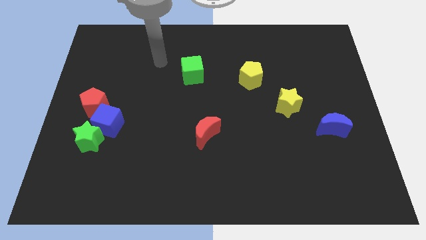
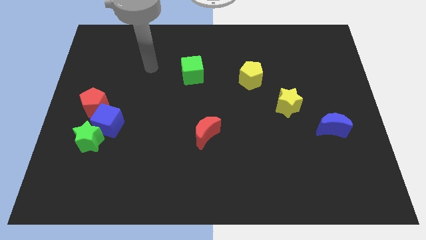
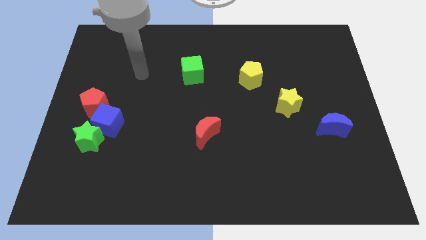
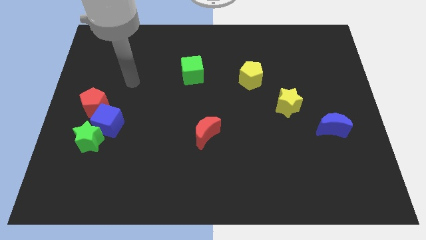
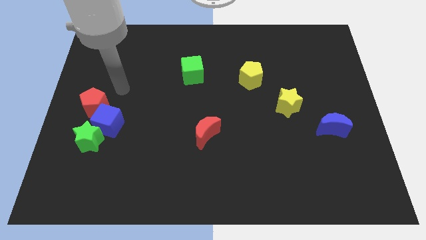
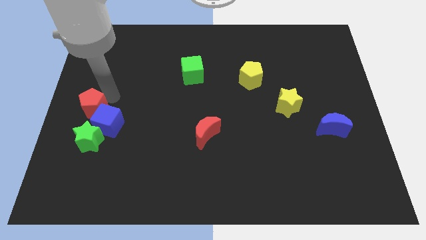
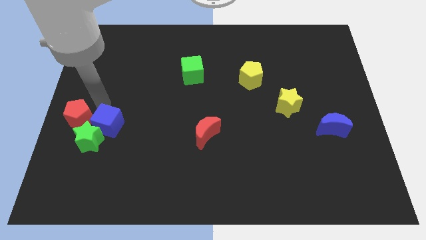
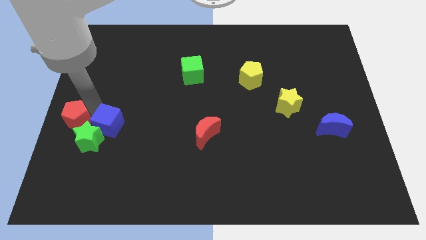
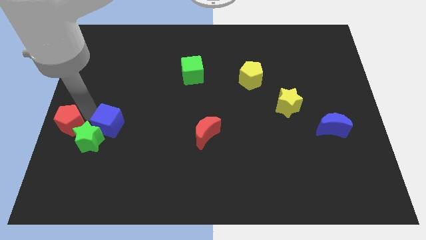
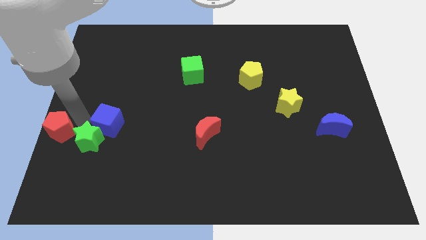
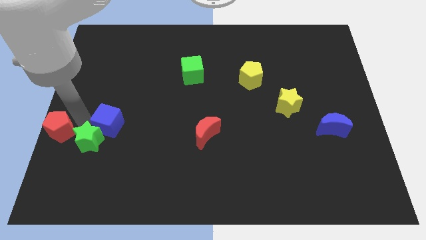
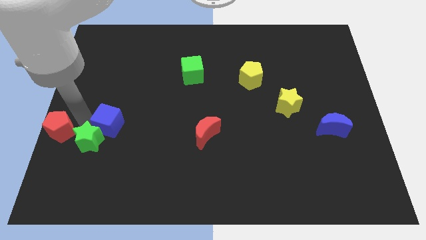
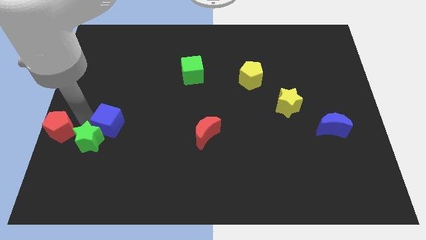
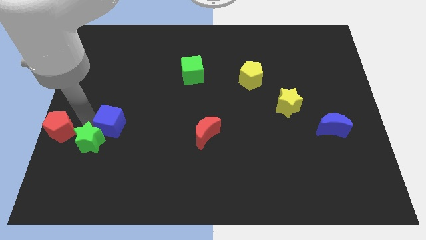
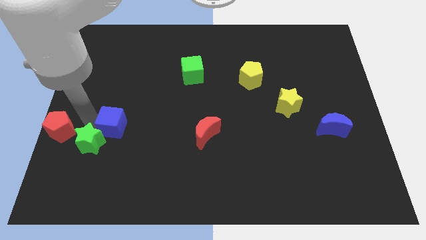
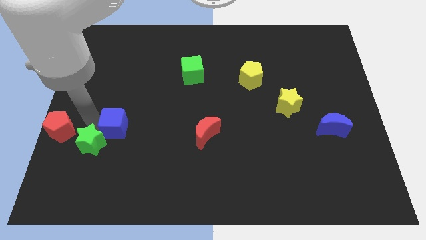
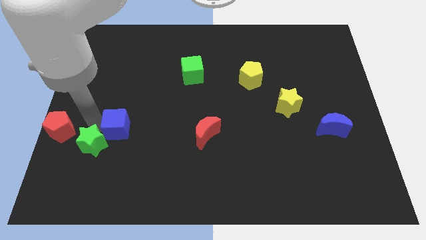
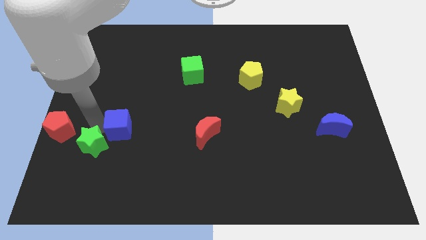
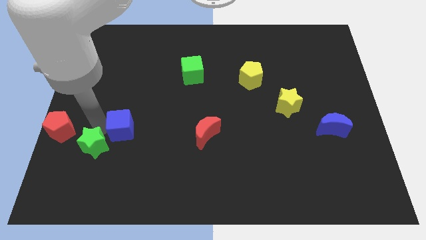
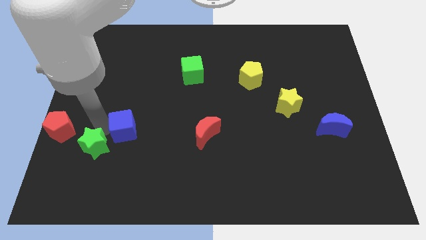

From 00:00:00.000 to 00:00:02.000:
pull the blue cube apart from the green star and red pentagon

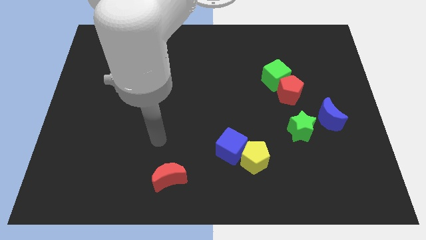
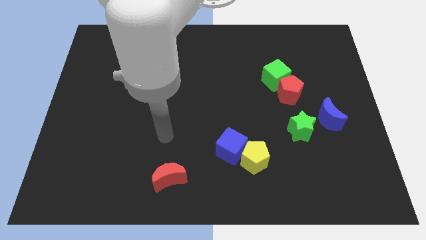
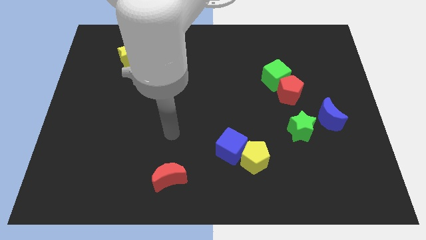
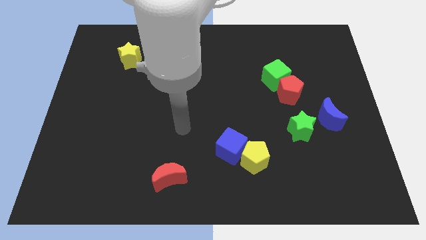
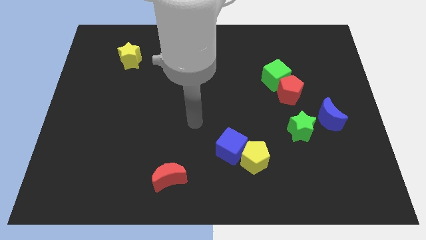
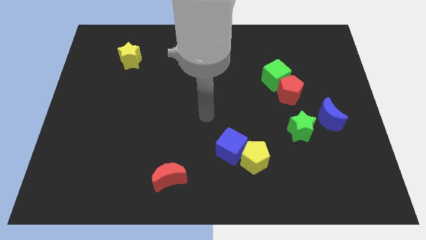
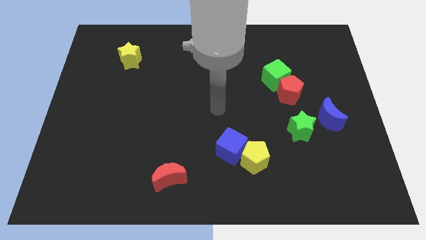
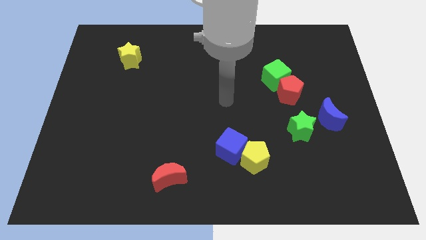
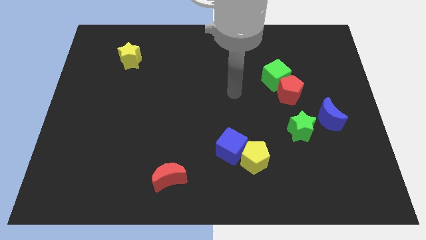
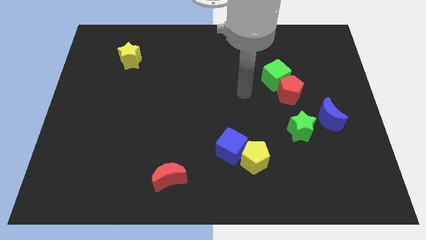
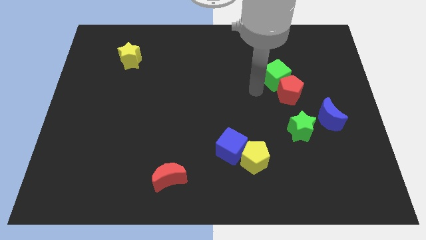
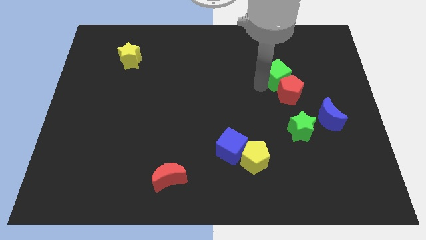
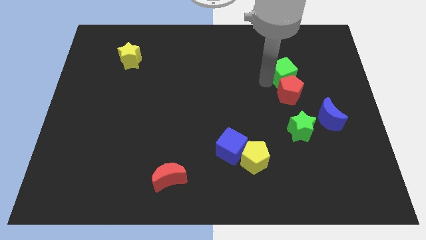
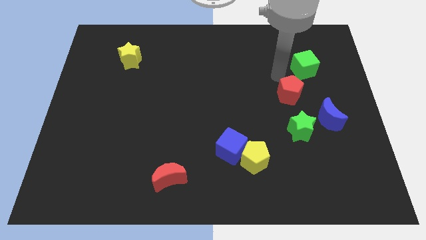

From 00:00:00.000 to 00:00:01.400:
move the red pentagon away from the green cube

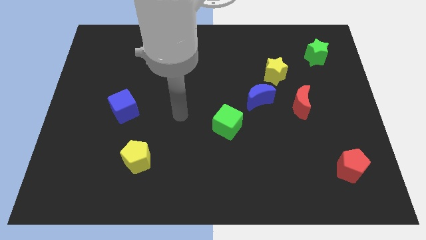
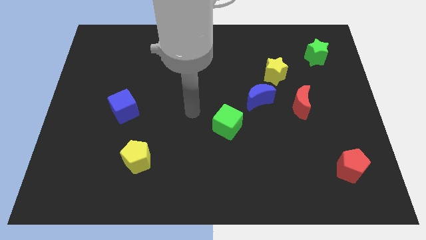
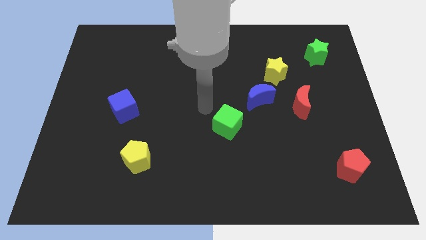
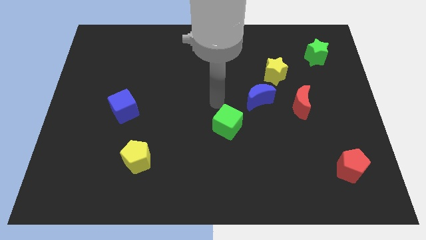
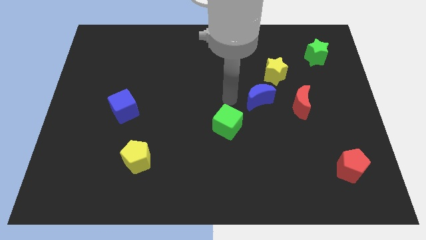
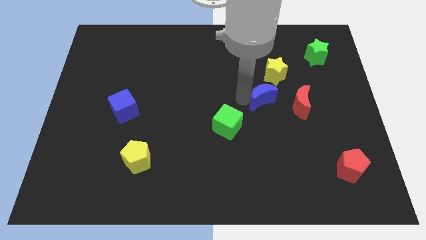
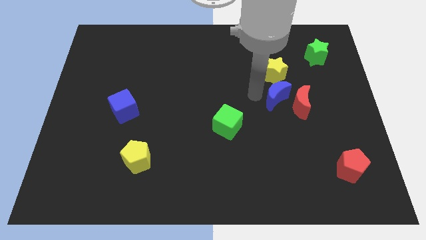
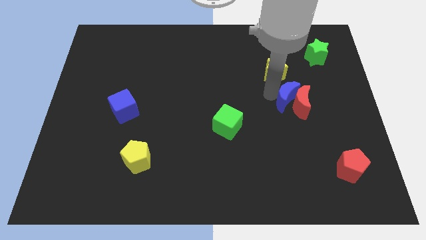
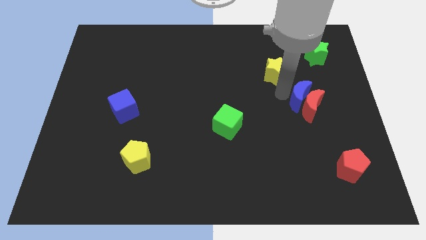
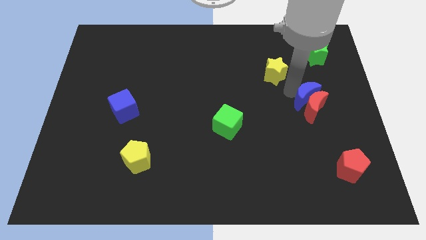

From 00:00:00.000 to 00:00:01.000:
separate the yellow star from the blue moon

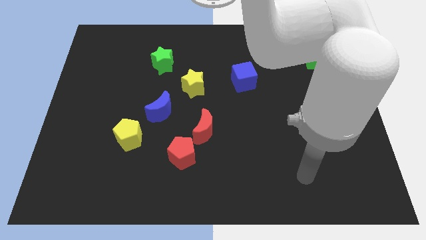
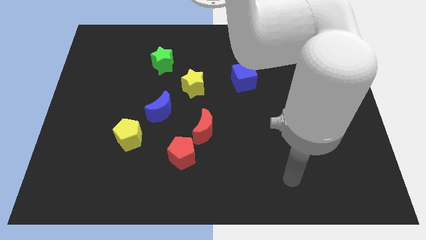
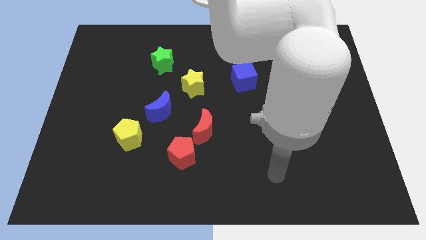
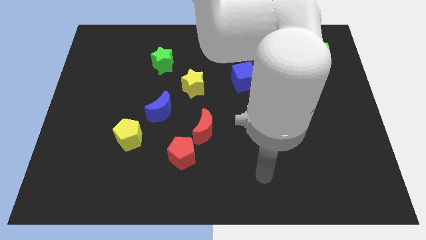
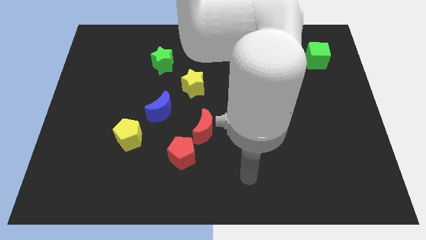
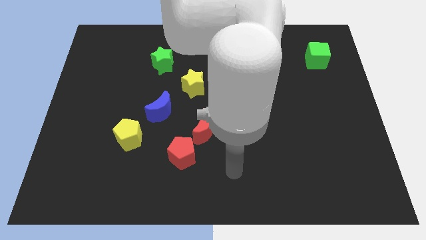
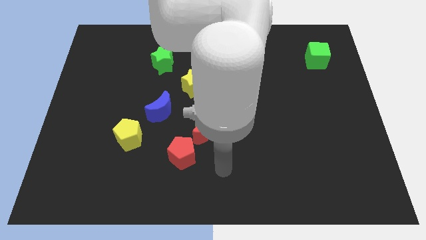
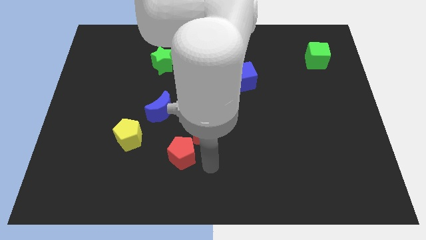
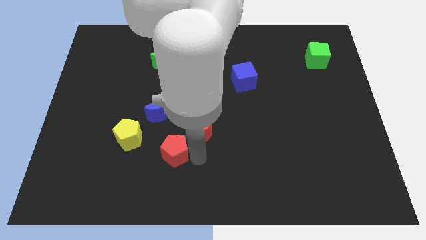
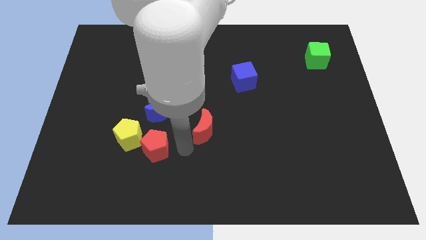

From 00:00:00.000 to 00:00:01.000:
move the red moon away from the red pentagon

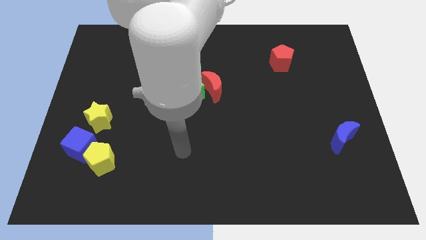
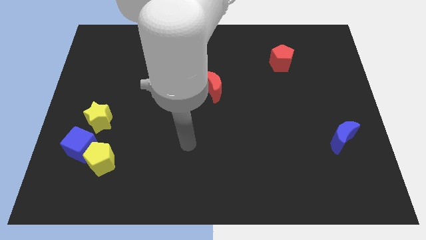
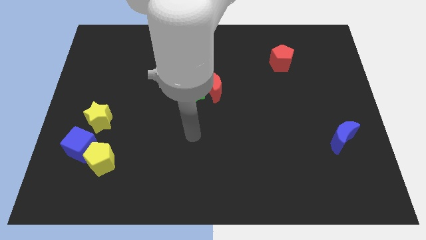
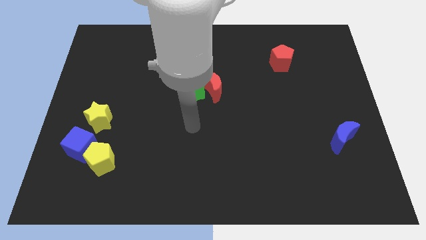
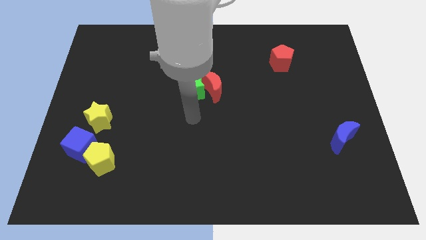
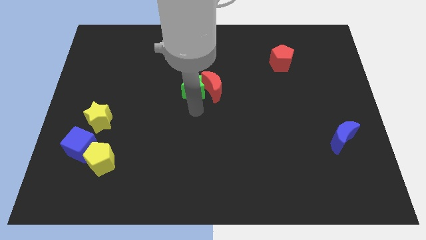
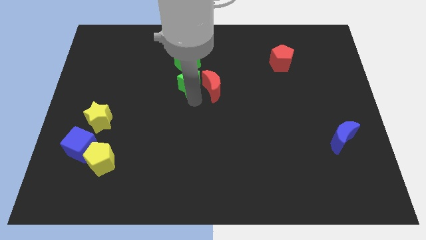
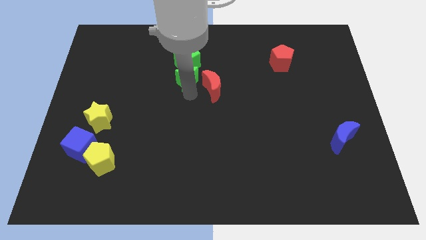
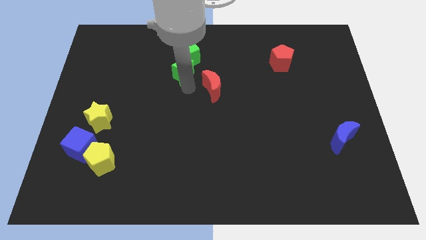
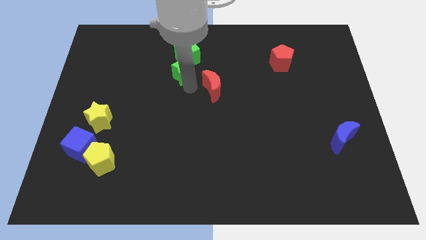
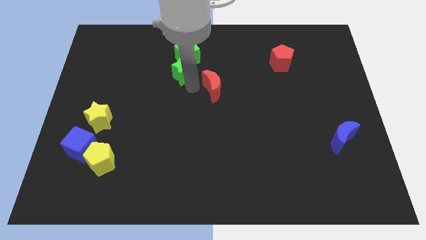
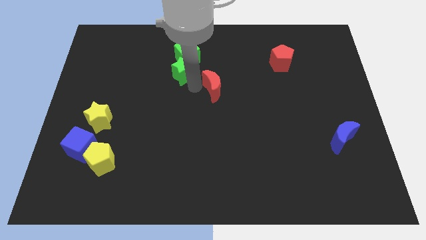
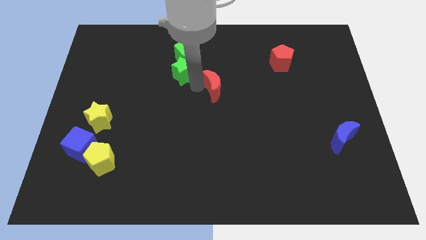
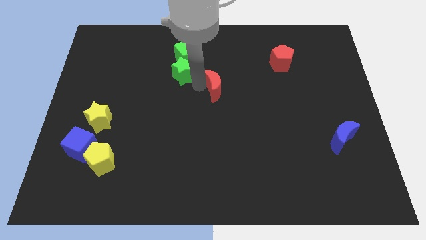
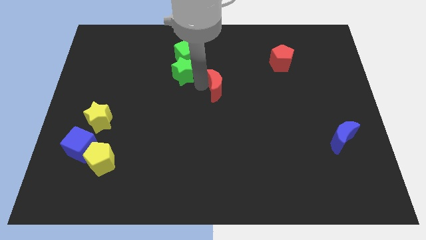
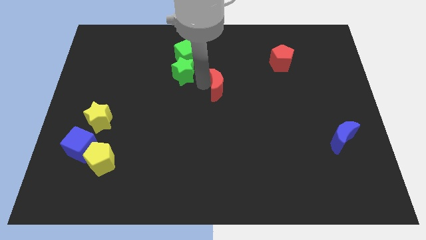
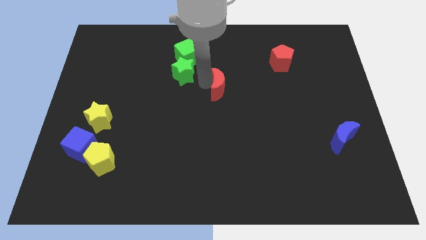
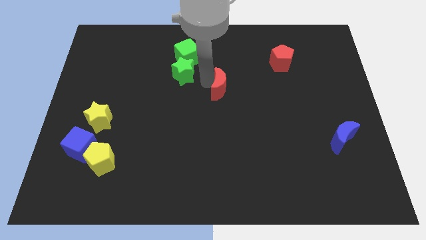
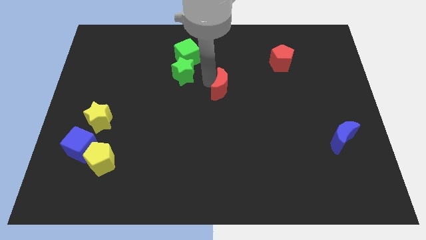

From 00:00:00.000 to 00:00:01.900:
move the red moon away from the green star

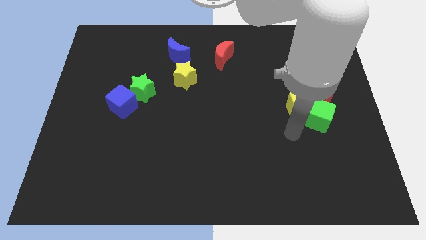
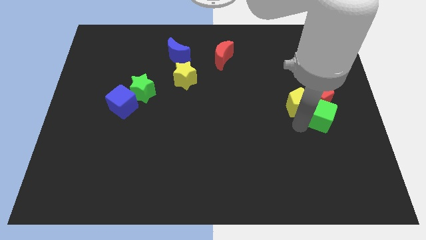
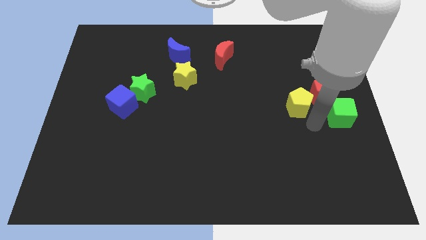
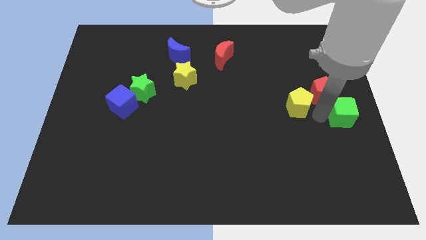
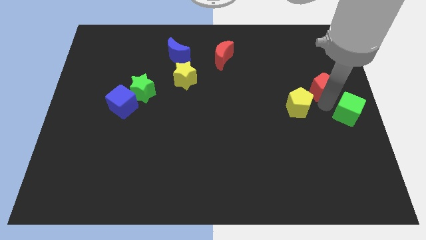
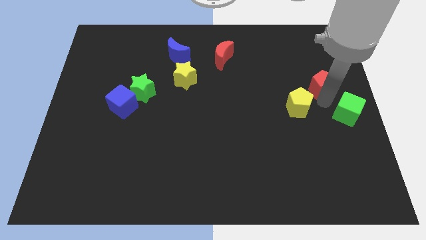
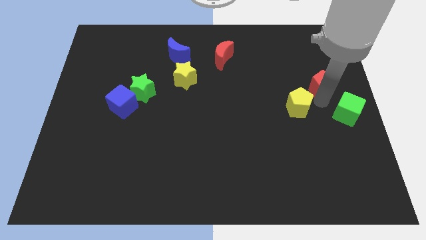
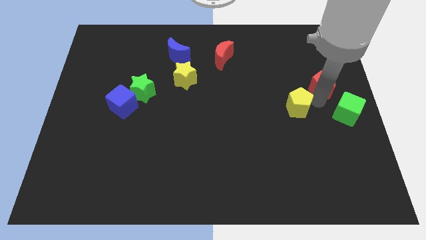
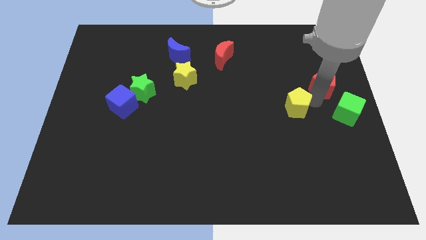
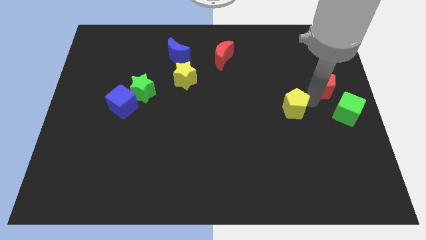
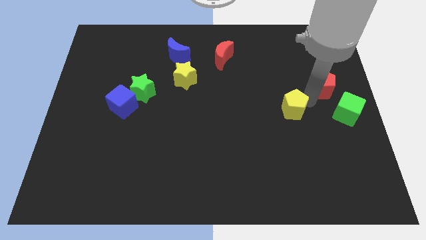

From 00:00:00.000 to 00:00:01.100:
pull the yellow pentagon apart from the green cube and red pentagon

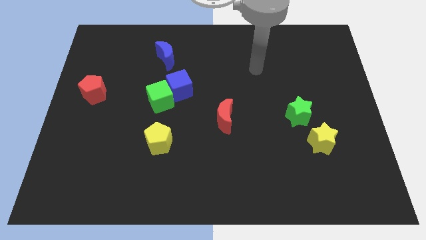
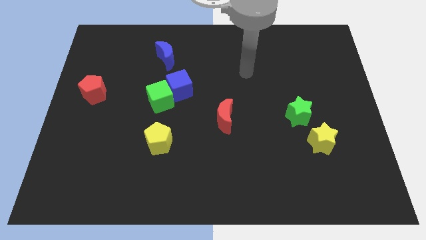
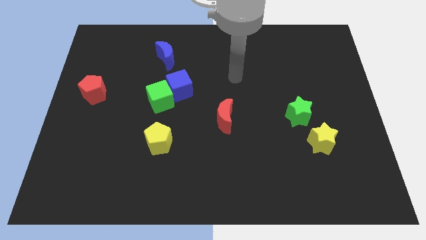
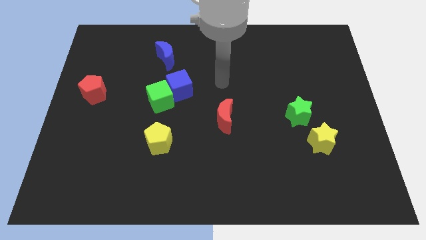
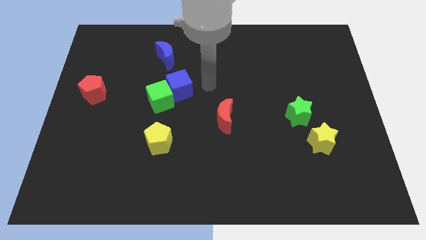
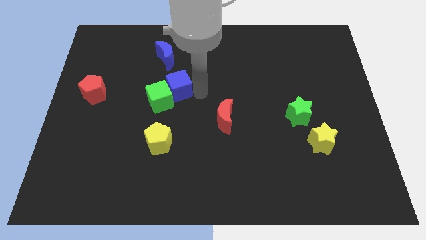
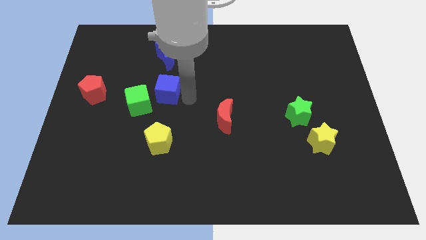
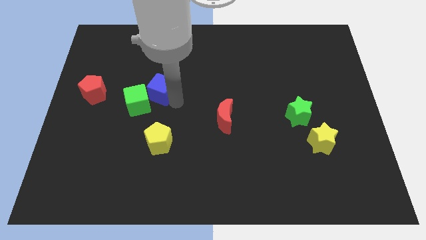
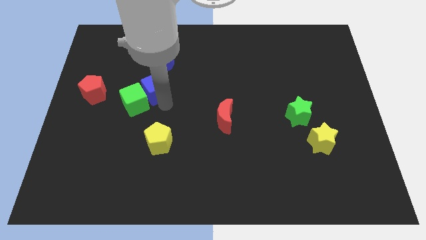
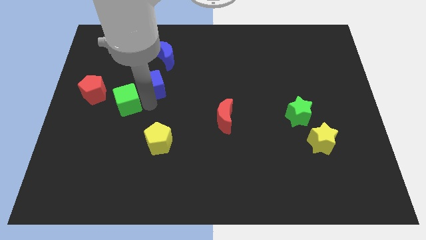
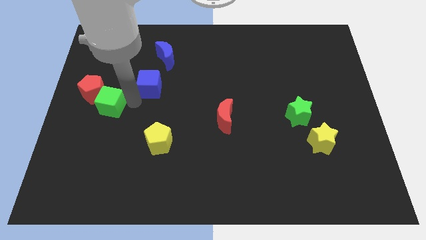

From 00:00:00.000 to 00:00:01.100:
pull the blue cube apart from the green cube
